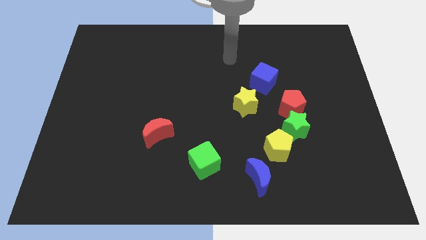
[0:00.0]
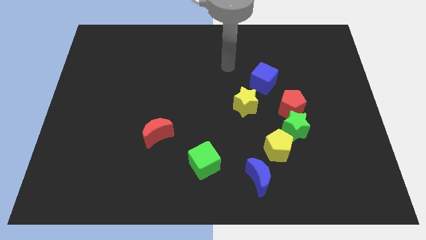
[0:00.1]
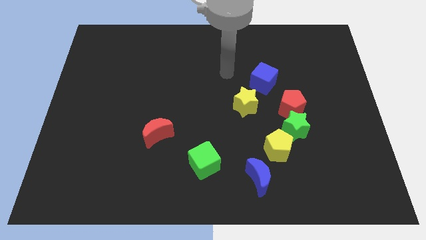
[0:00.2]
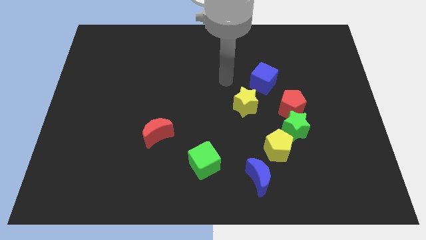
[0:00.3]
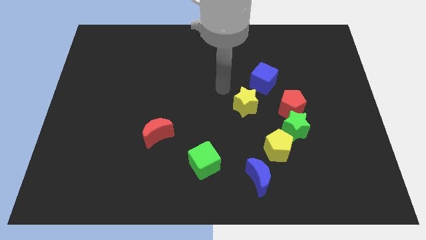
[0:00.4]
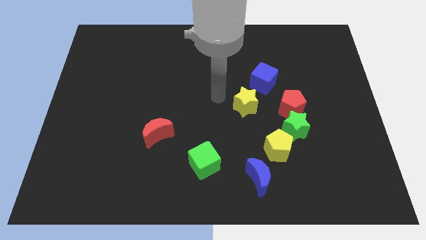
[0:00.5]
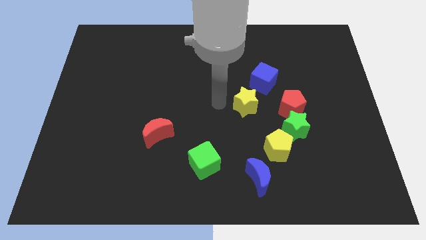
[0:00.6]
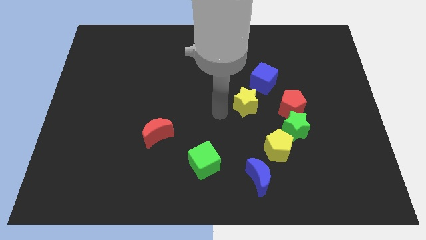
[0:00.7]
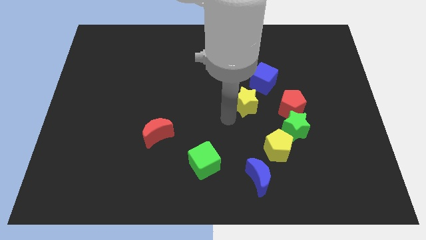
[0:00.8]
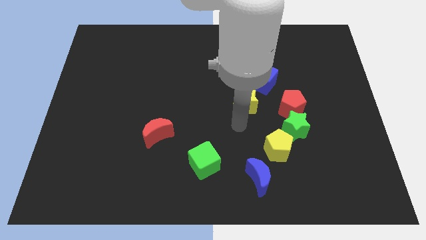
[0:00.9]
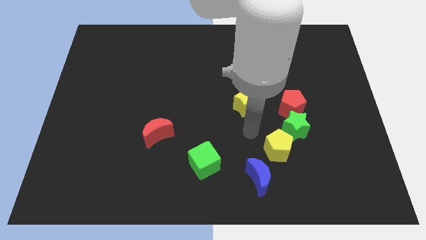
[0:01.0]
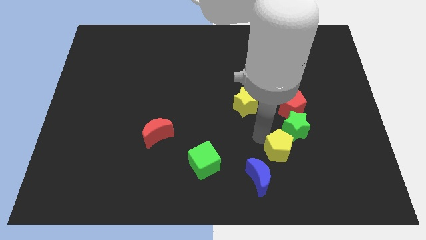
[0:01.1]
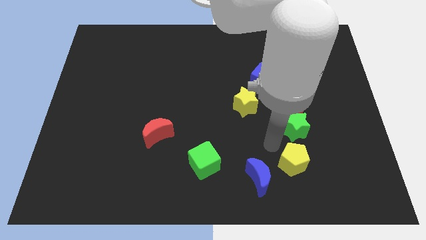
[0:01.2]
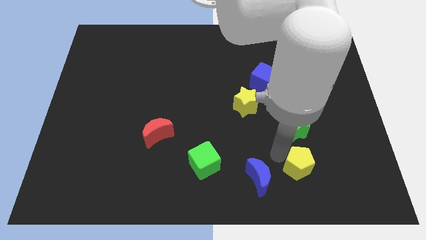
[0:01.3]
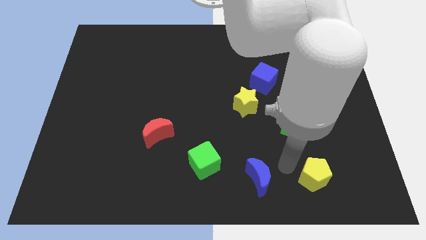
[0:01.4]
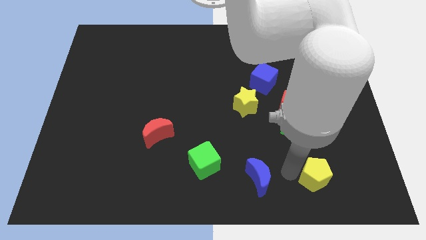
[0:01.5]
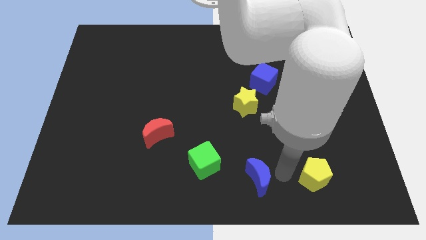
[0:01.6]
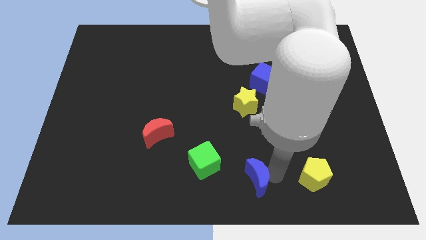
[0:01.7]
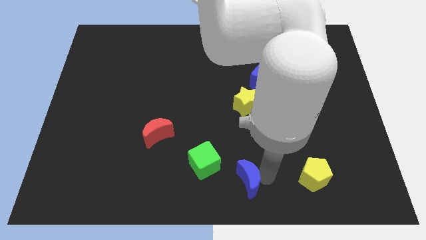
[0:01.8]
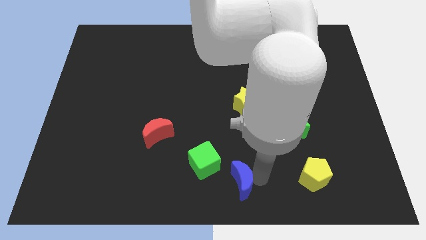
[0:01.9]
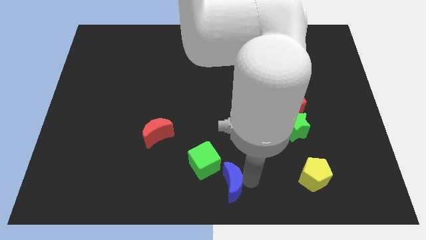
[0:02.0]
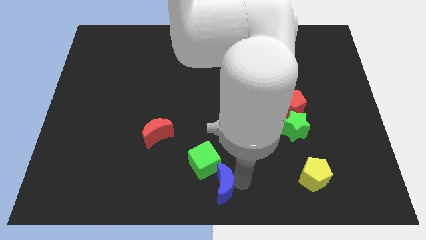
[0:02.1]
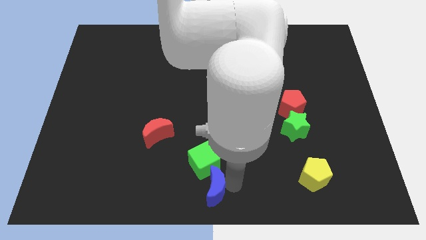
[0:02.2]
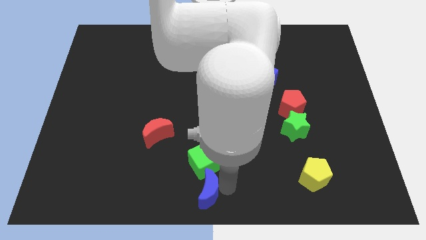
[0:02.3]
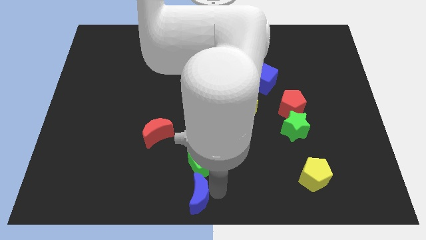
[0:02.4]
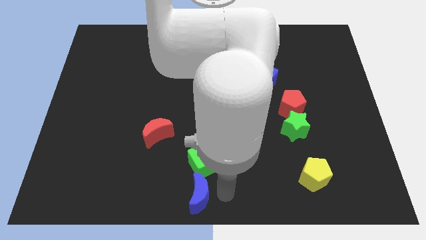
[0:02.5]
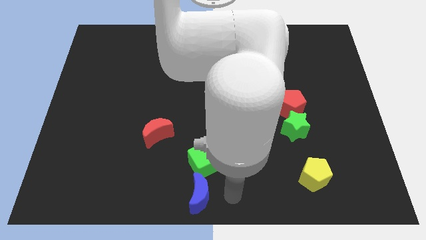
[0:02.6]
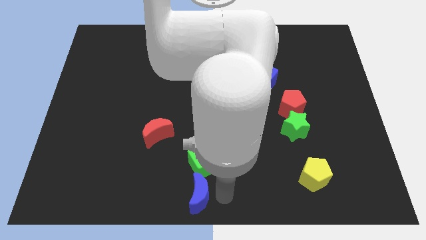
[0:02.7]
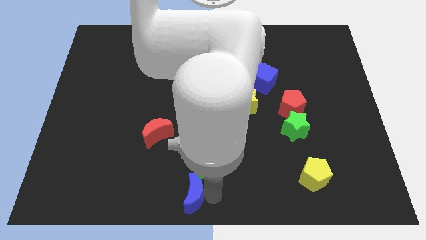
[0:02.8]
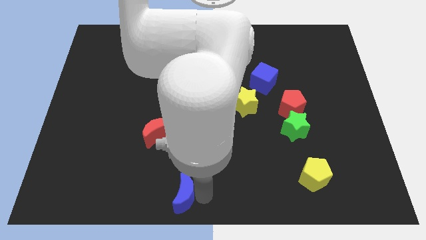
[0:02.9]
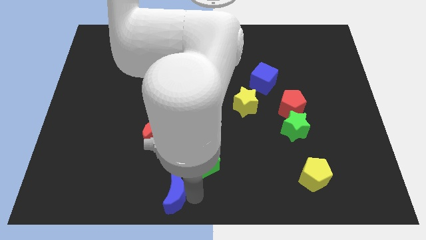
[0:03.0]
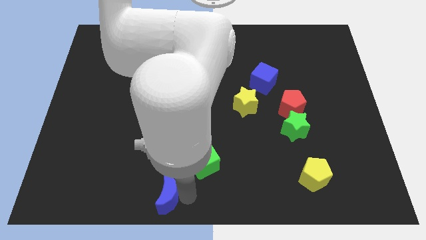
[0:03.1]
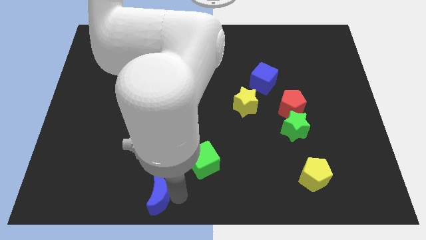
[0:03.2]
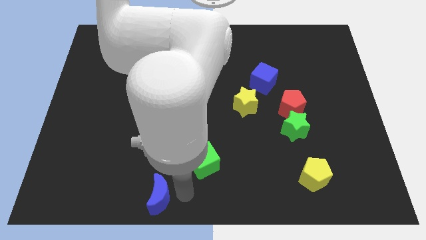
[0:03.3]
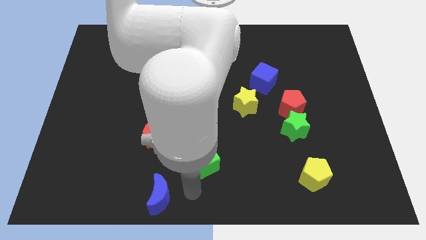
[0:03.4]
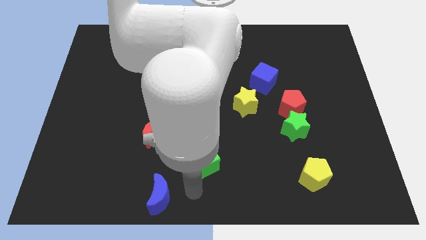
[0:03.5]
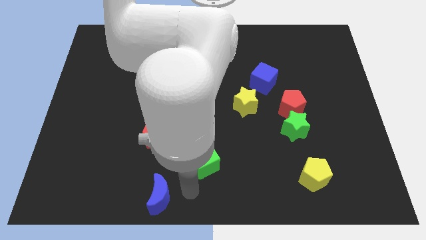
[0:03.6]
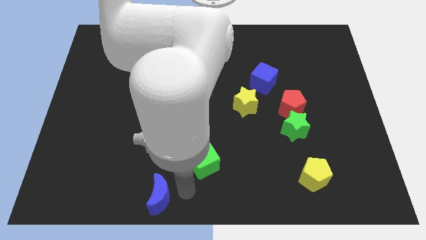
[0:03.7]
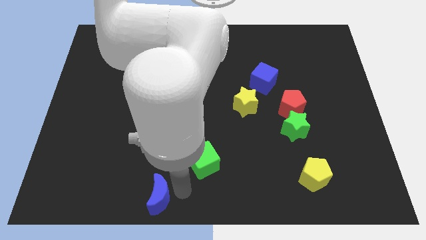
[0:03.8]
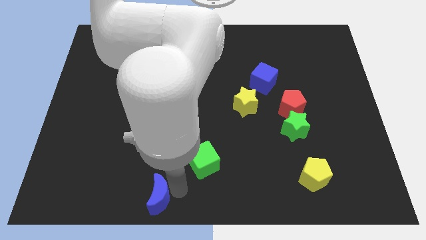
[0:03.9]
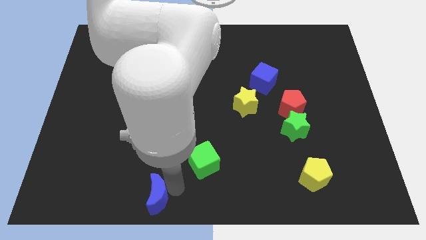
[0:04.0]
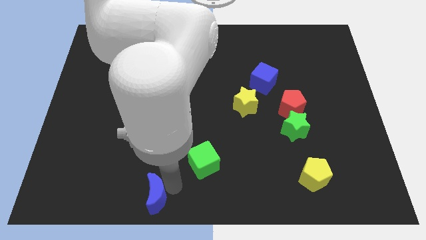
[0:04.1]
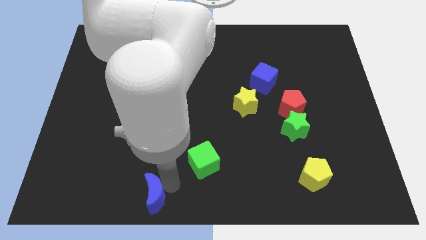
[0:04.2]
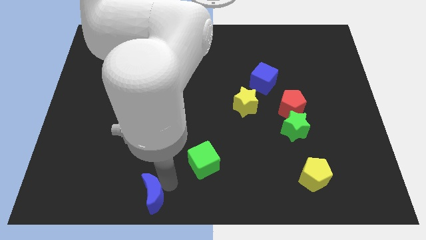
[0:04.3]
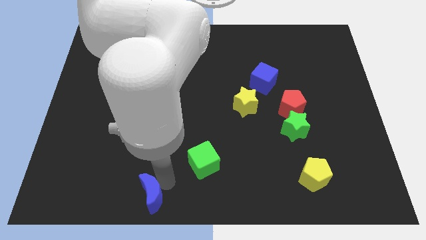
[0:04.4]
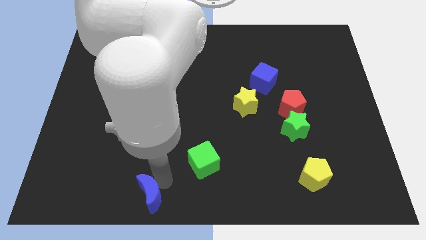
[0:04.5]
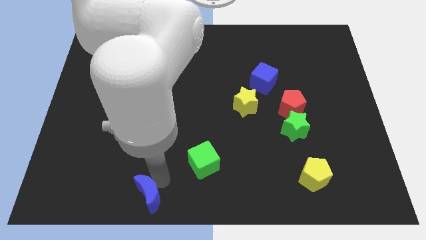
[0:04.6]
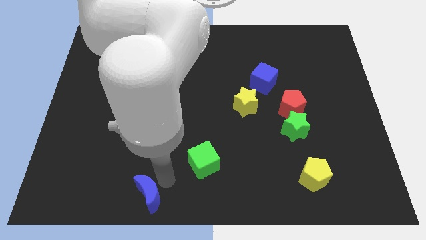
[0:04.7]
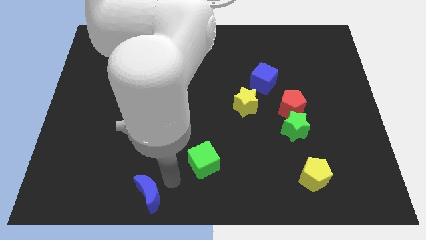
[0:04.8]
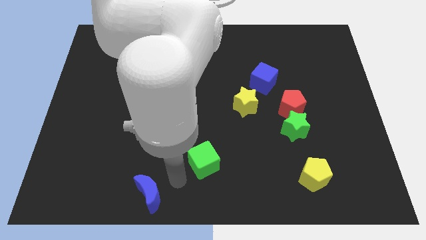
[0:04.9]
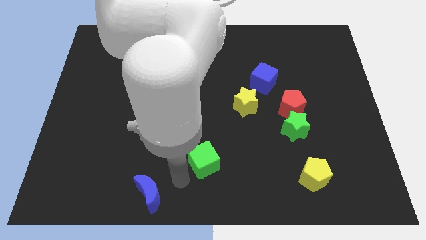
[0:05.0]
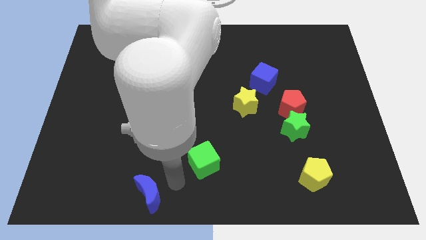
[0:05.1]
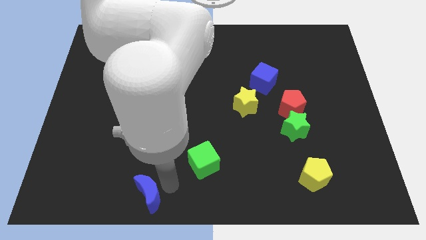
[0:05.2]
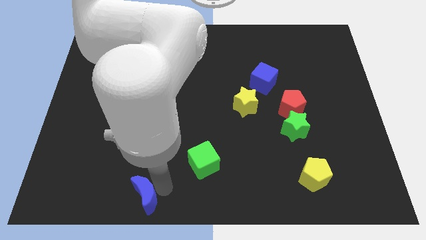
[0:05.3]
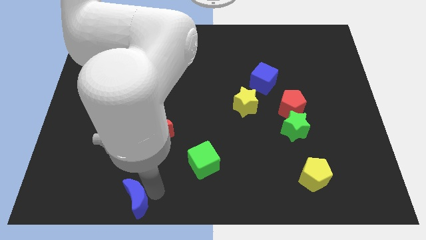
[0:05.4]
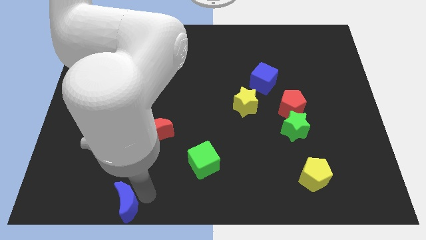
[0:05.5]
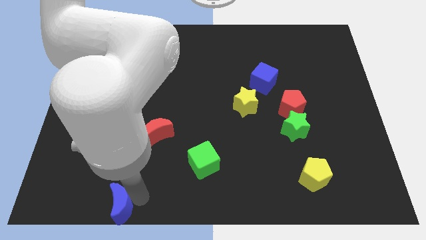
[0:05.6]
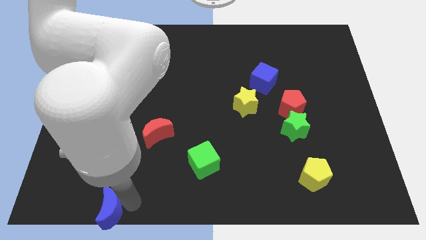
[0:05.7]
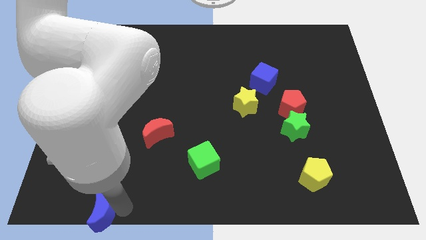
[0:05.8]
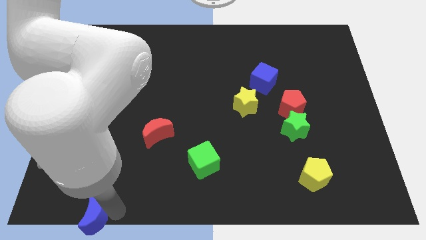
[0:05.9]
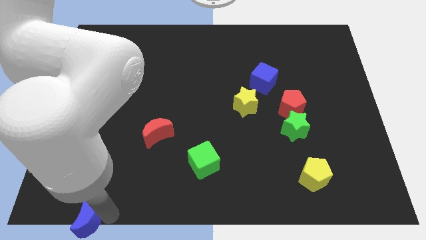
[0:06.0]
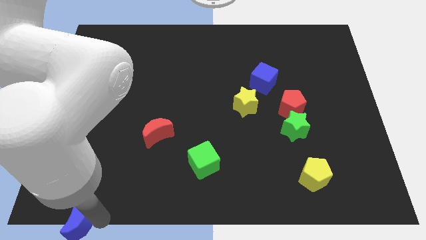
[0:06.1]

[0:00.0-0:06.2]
push the blue moon to the lower left corner
